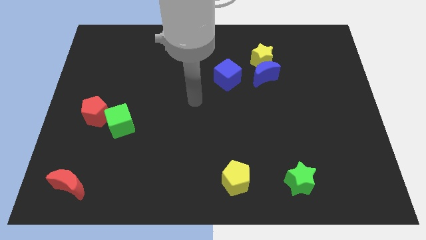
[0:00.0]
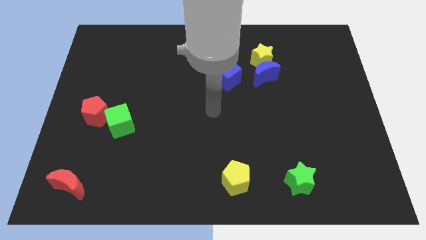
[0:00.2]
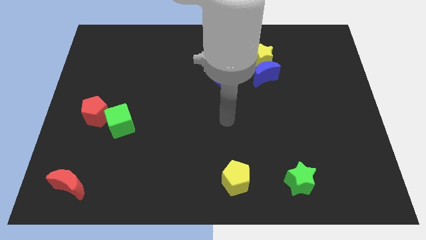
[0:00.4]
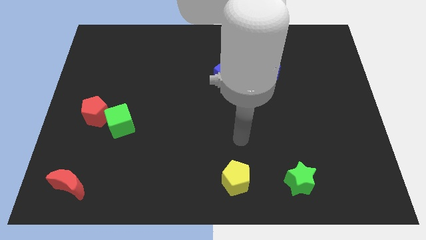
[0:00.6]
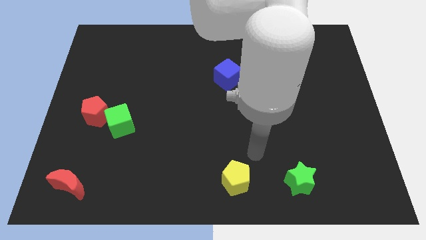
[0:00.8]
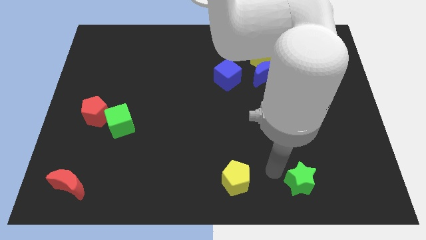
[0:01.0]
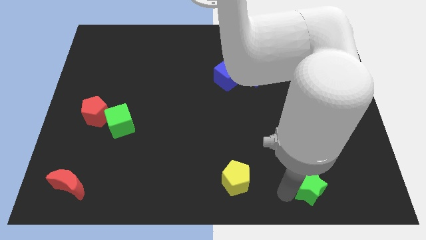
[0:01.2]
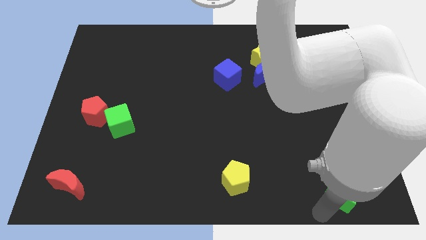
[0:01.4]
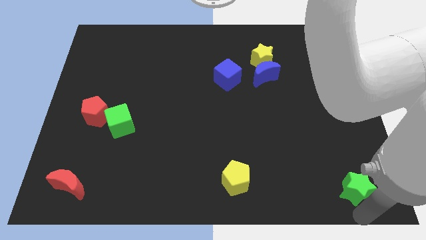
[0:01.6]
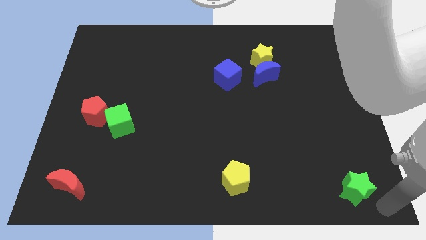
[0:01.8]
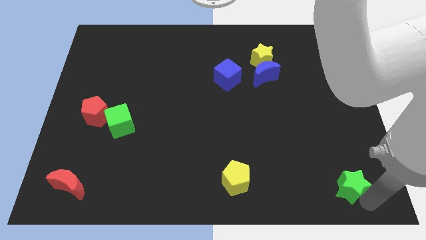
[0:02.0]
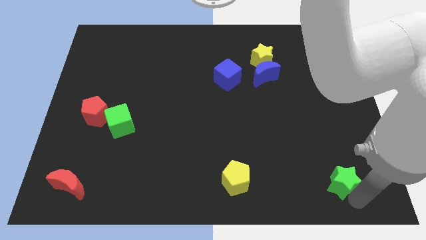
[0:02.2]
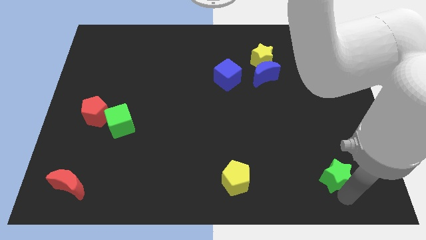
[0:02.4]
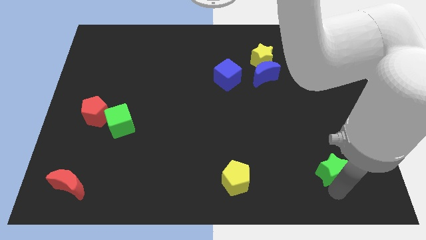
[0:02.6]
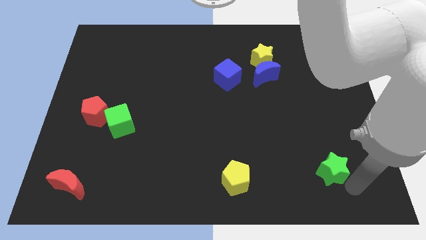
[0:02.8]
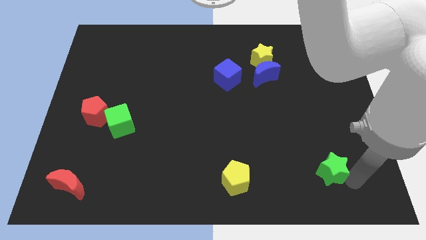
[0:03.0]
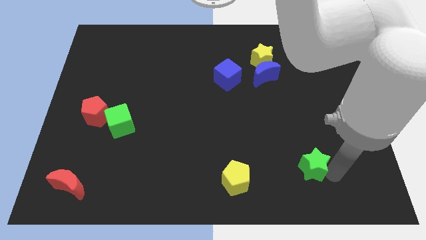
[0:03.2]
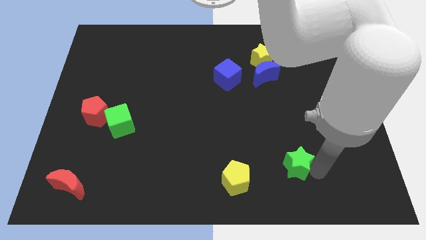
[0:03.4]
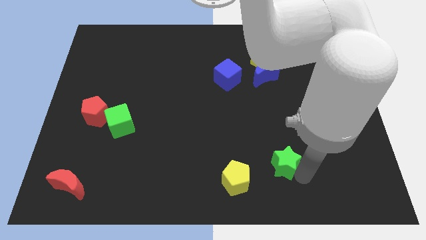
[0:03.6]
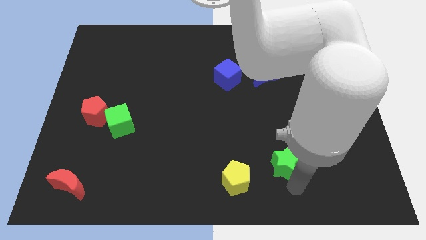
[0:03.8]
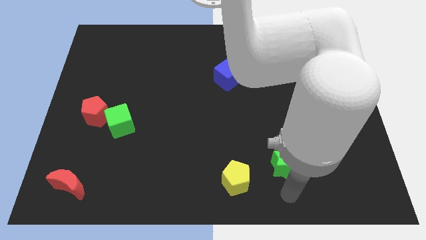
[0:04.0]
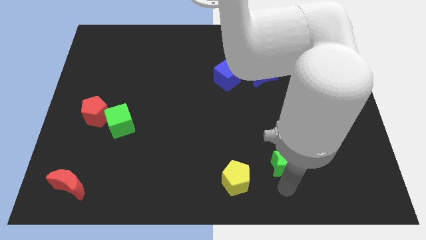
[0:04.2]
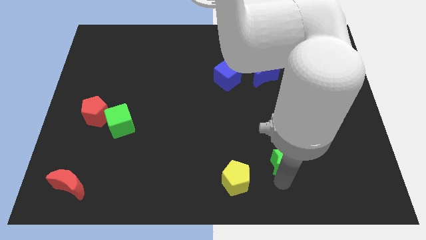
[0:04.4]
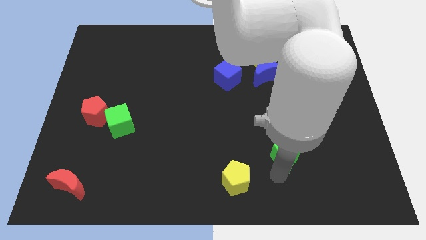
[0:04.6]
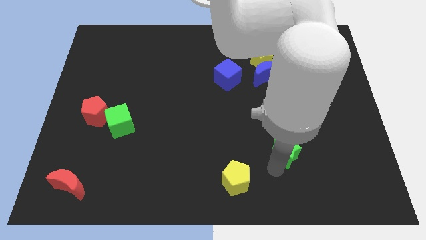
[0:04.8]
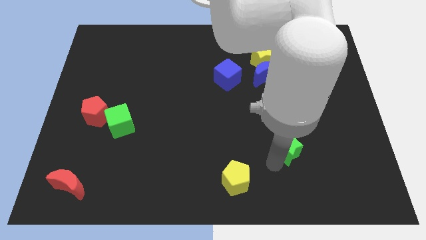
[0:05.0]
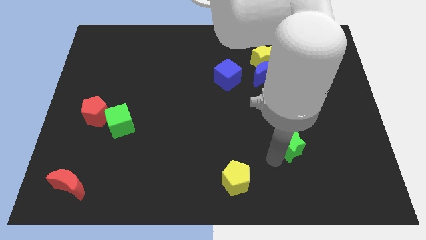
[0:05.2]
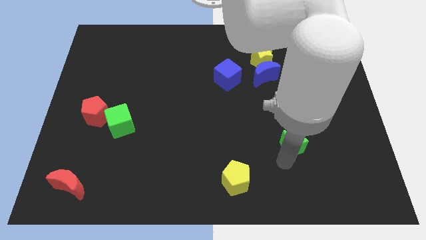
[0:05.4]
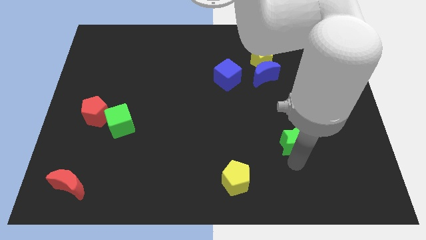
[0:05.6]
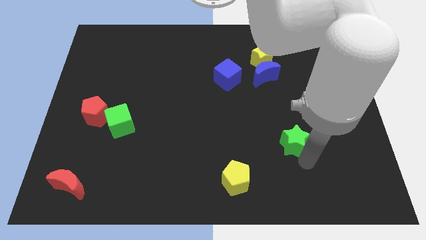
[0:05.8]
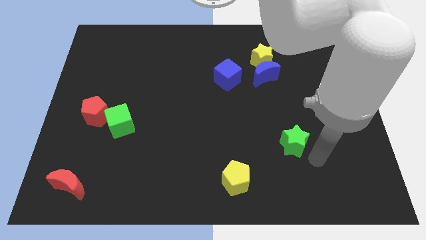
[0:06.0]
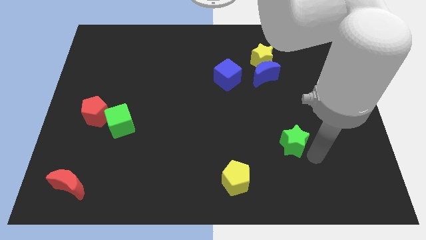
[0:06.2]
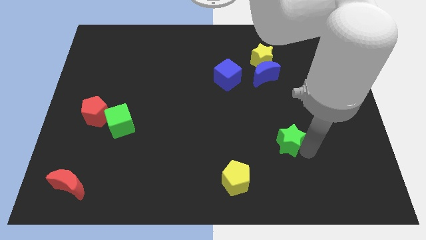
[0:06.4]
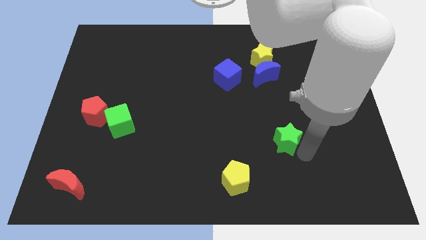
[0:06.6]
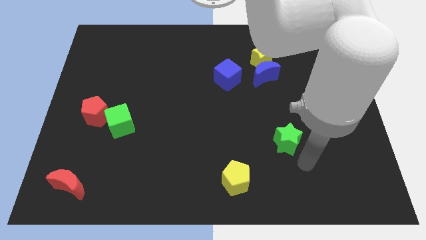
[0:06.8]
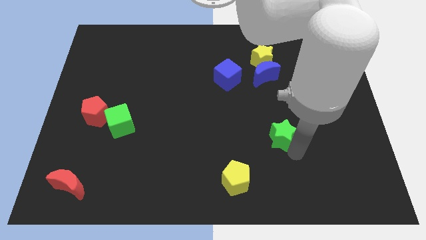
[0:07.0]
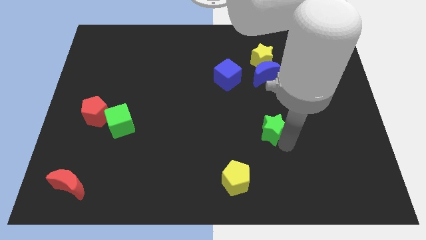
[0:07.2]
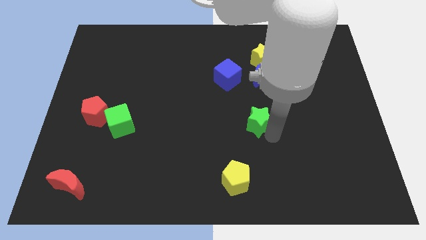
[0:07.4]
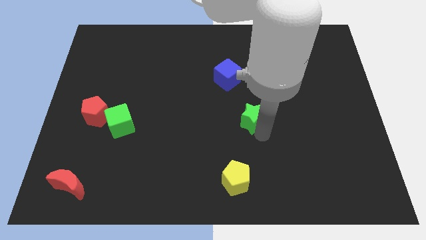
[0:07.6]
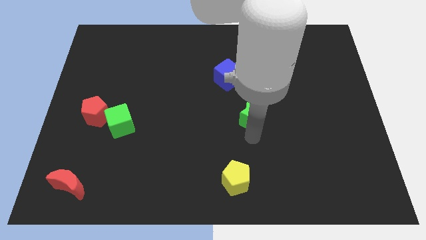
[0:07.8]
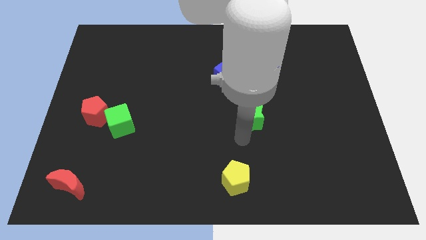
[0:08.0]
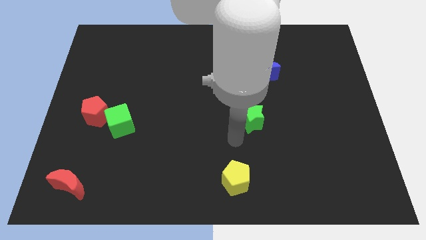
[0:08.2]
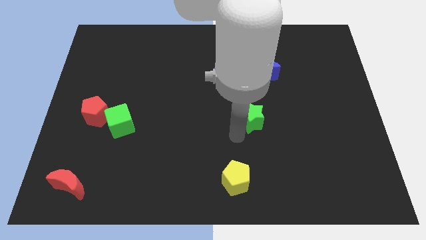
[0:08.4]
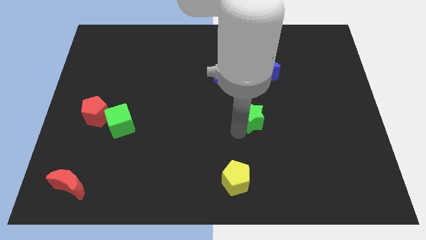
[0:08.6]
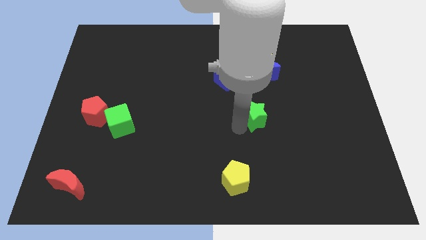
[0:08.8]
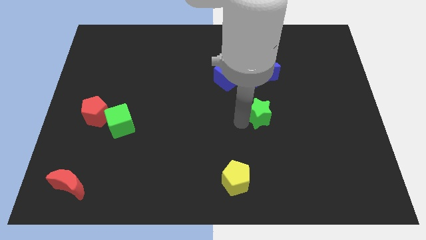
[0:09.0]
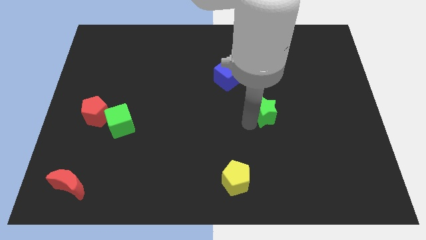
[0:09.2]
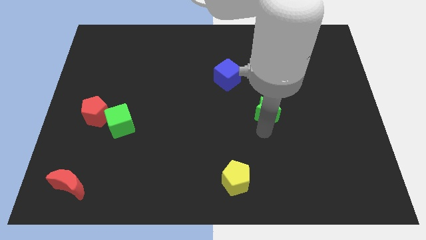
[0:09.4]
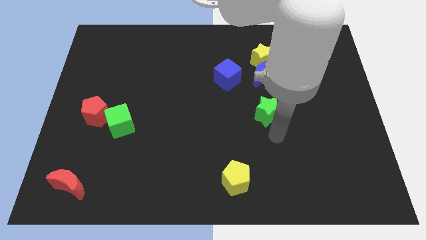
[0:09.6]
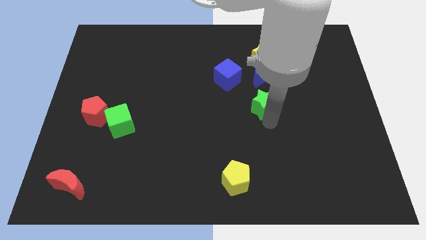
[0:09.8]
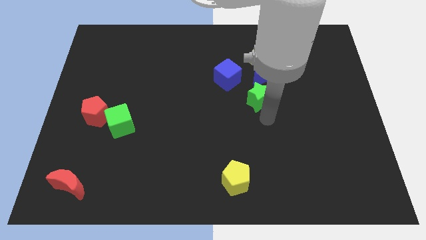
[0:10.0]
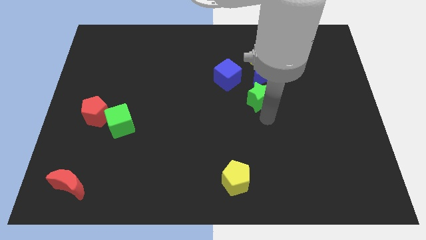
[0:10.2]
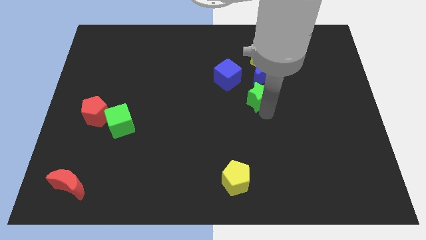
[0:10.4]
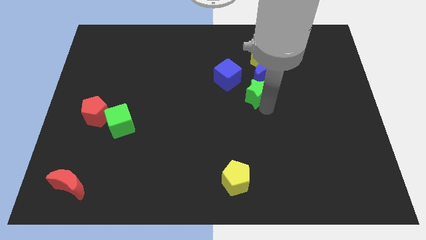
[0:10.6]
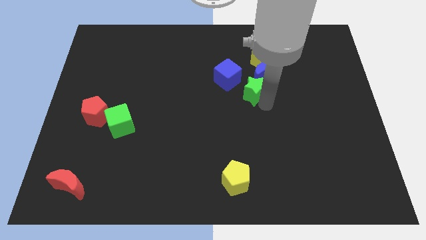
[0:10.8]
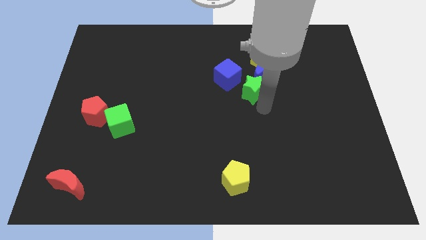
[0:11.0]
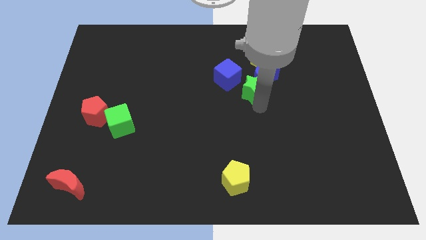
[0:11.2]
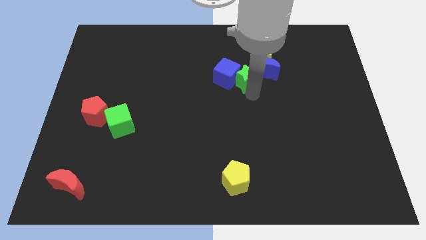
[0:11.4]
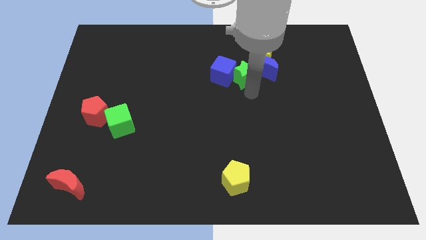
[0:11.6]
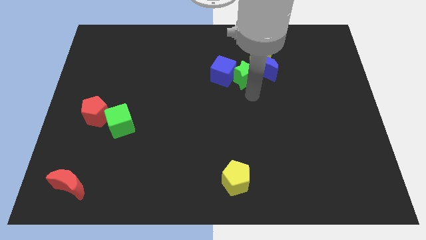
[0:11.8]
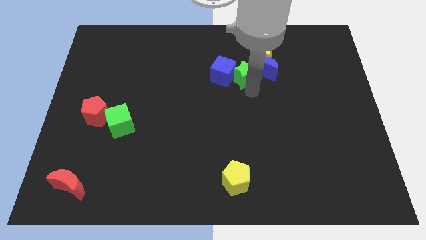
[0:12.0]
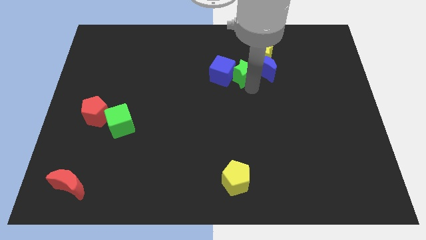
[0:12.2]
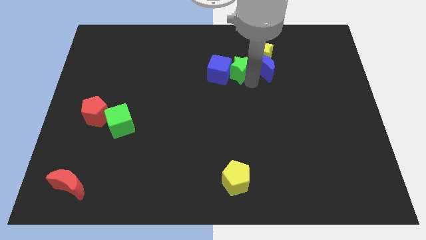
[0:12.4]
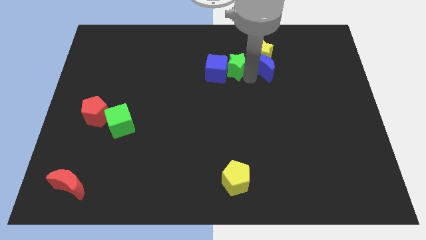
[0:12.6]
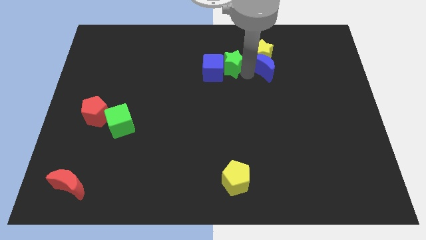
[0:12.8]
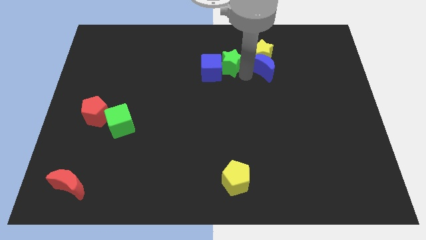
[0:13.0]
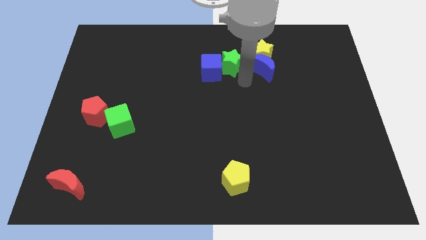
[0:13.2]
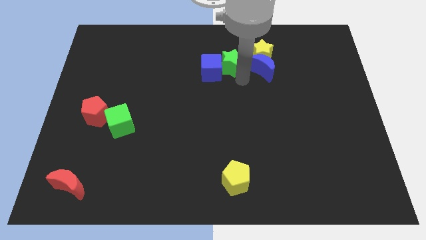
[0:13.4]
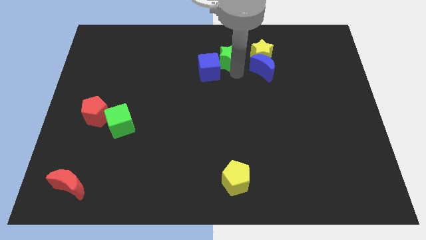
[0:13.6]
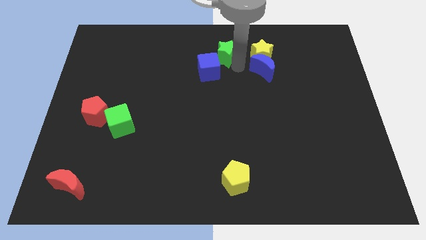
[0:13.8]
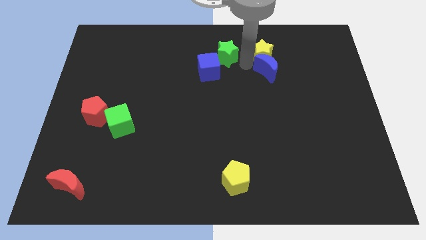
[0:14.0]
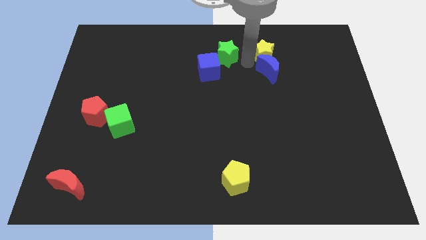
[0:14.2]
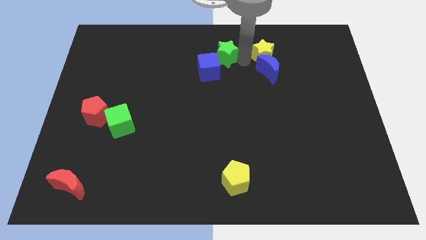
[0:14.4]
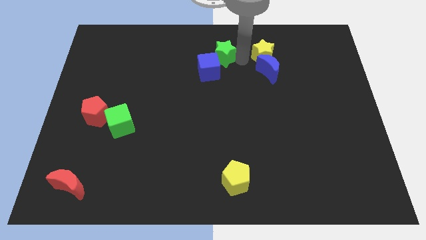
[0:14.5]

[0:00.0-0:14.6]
move the green star to the towards your base
